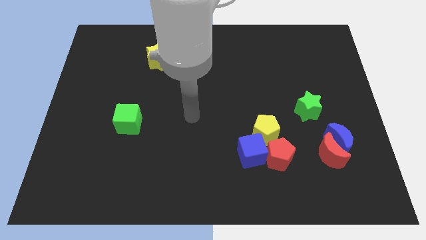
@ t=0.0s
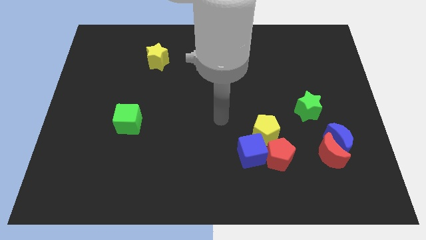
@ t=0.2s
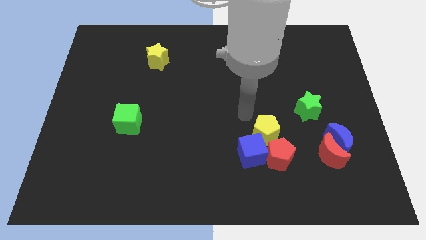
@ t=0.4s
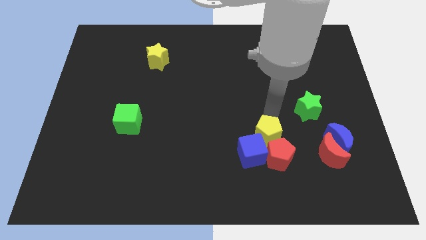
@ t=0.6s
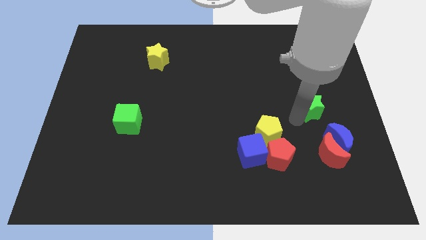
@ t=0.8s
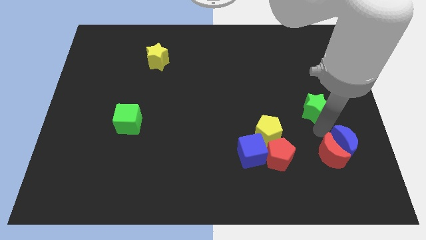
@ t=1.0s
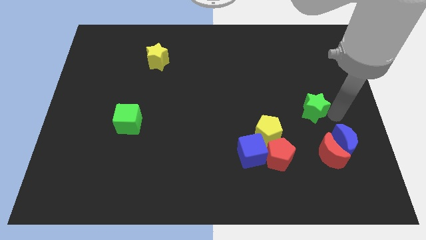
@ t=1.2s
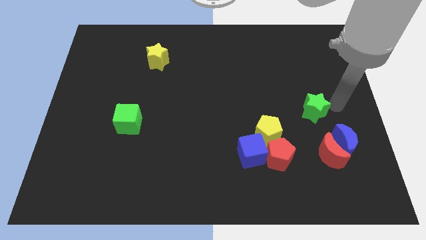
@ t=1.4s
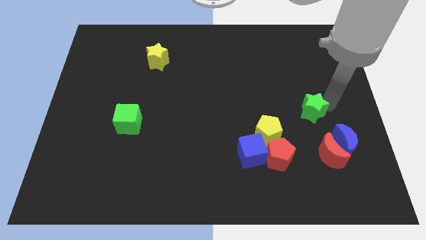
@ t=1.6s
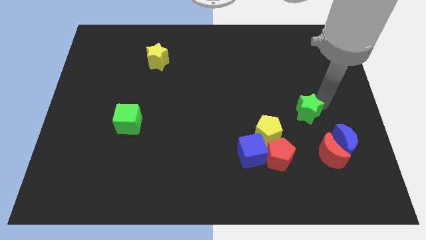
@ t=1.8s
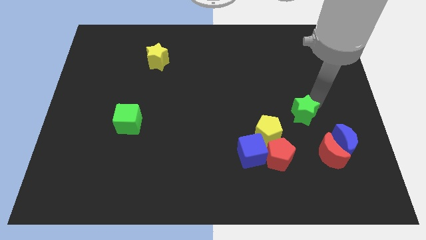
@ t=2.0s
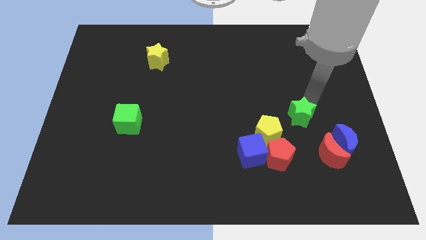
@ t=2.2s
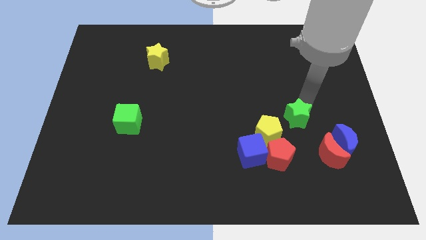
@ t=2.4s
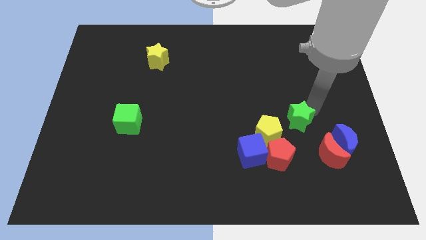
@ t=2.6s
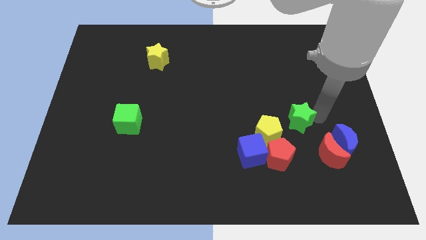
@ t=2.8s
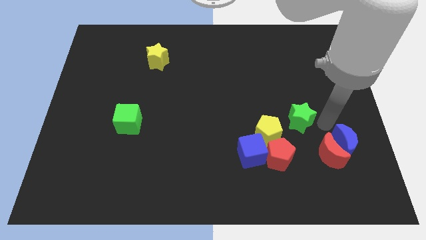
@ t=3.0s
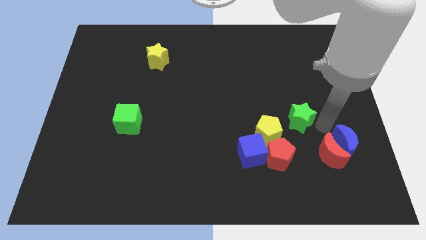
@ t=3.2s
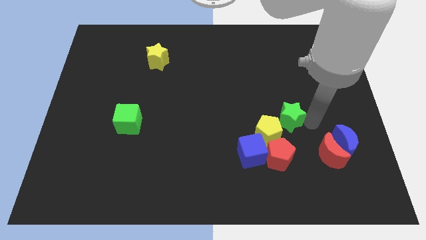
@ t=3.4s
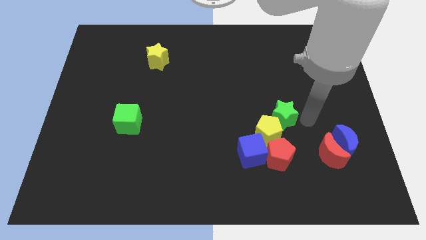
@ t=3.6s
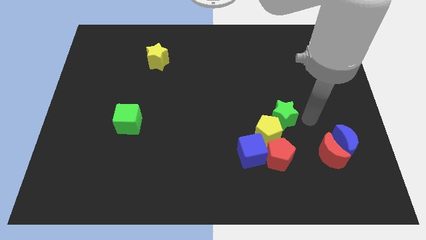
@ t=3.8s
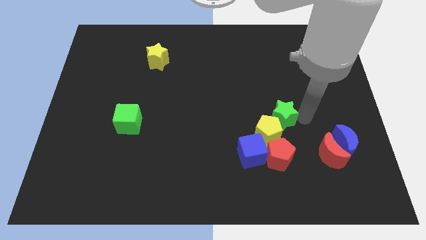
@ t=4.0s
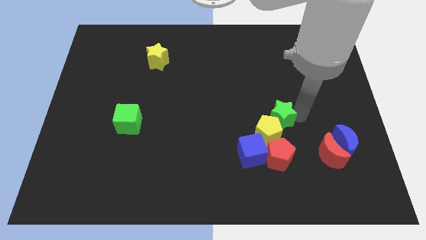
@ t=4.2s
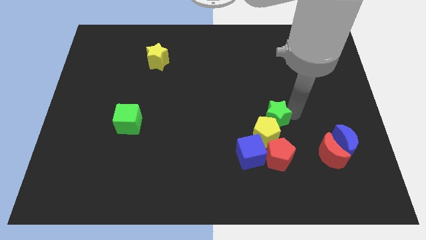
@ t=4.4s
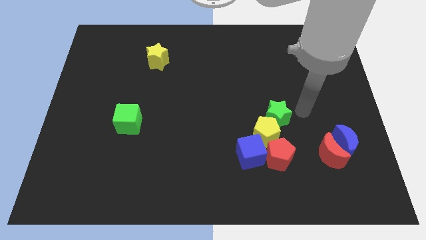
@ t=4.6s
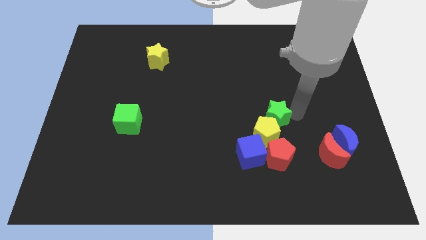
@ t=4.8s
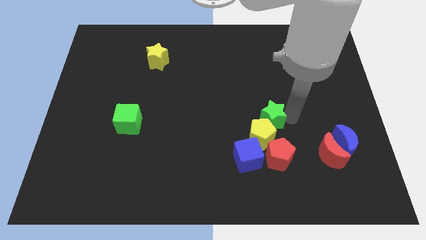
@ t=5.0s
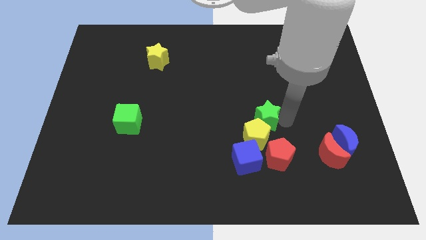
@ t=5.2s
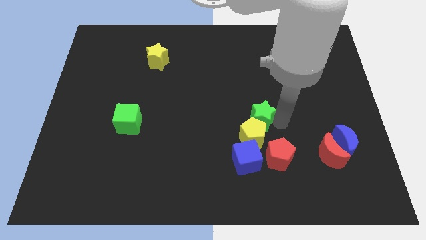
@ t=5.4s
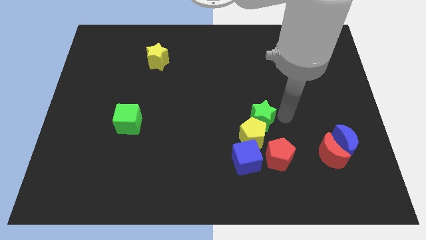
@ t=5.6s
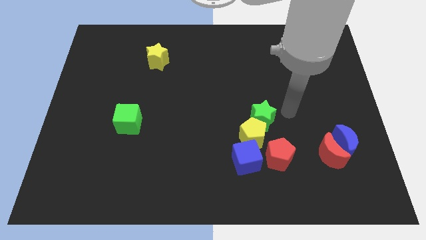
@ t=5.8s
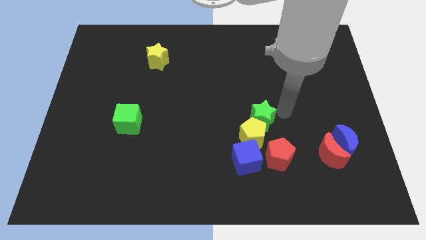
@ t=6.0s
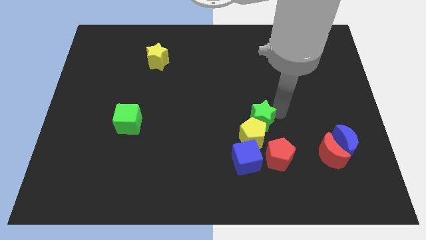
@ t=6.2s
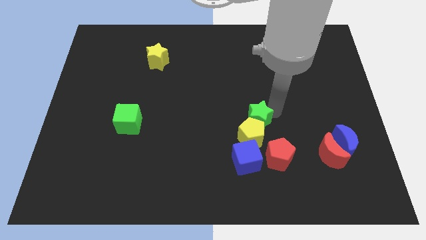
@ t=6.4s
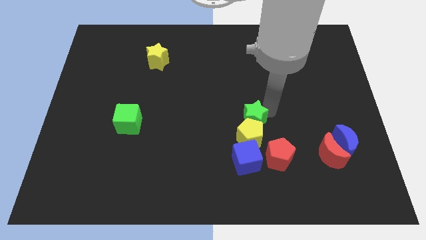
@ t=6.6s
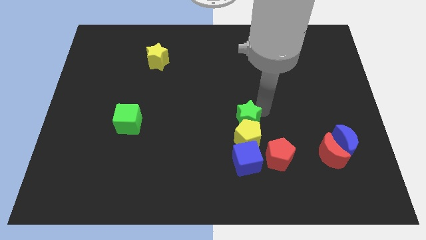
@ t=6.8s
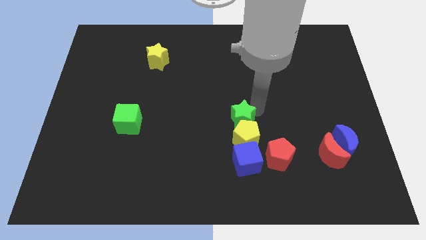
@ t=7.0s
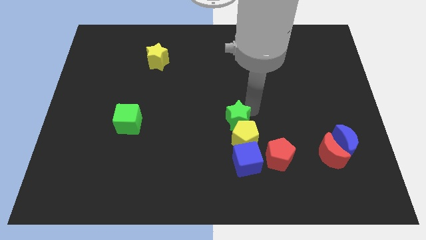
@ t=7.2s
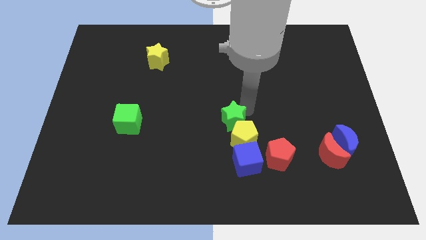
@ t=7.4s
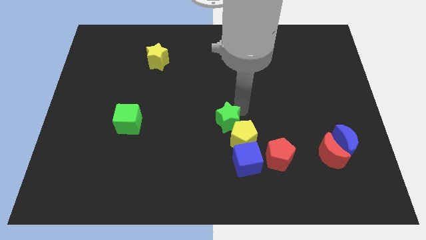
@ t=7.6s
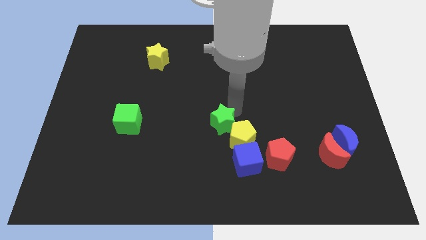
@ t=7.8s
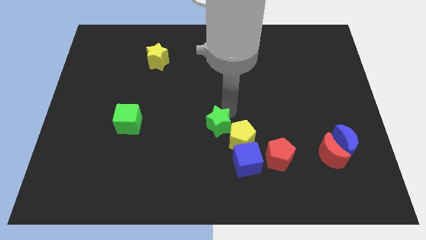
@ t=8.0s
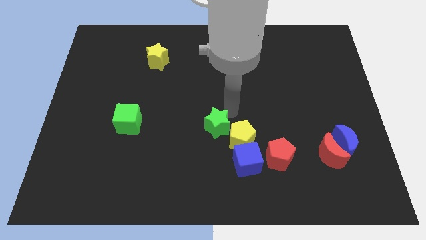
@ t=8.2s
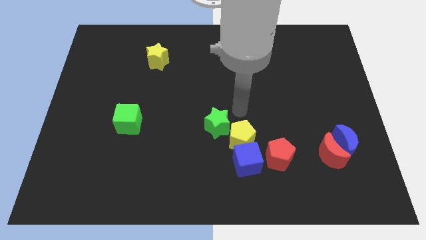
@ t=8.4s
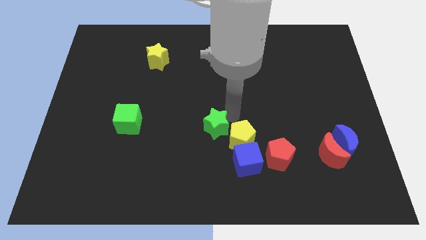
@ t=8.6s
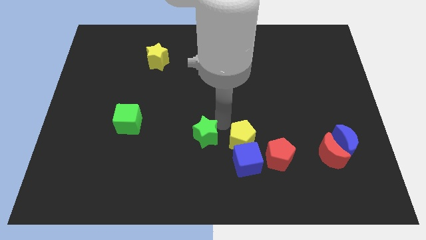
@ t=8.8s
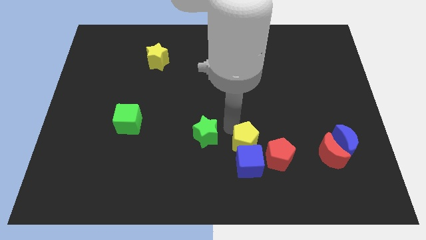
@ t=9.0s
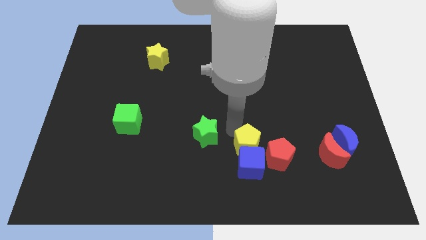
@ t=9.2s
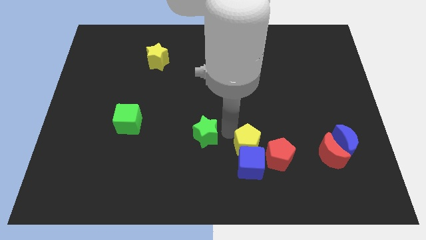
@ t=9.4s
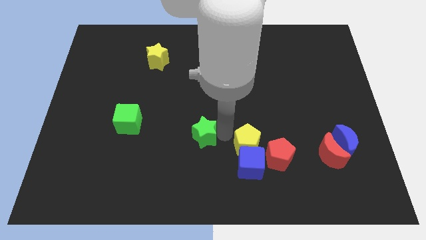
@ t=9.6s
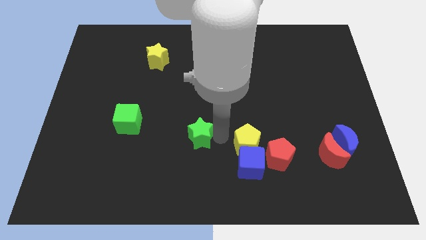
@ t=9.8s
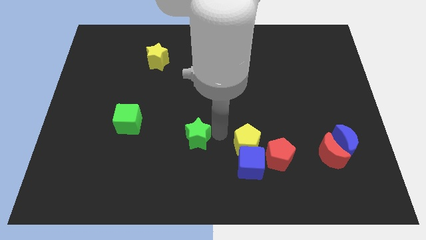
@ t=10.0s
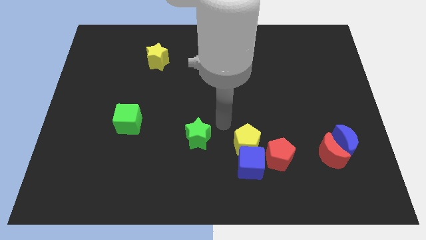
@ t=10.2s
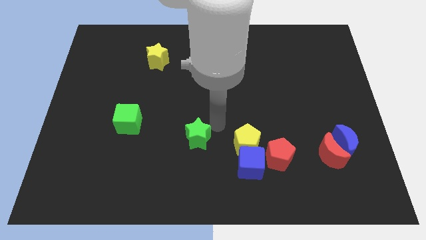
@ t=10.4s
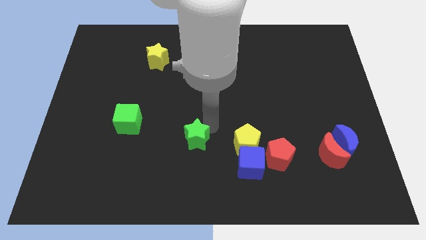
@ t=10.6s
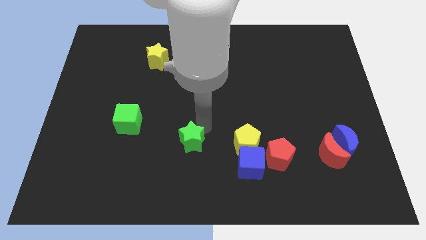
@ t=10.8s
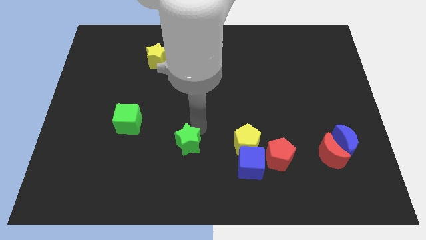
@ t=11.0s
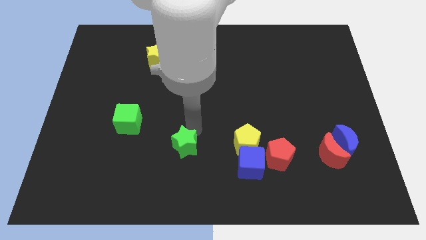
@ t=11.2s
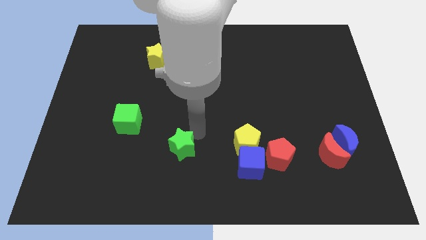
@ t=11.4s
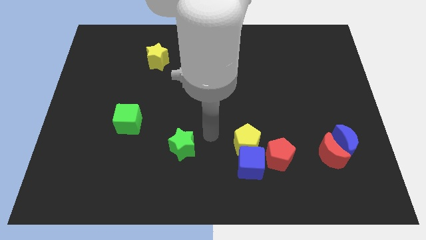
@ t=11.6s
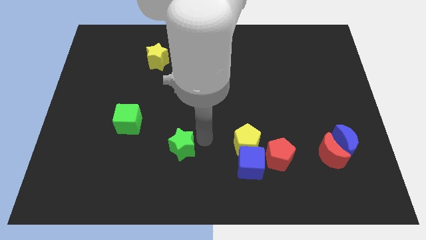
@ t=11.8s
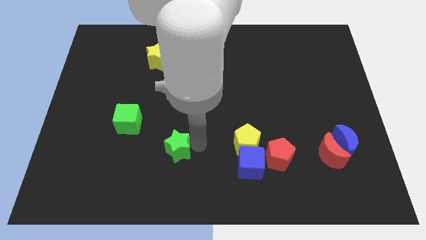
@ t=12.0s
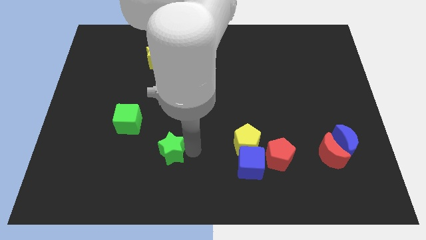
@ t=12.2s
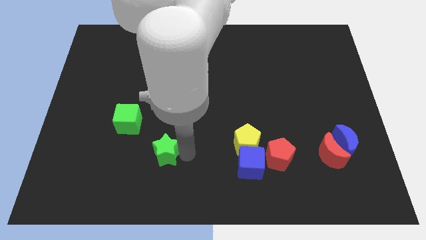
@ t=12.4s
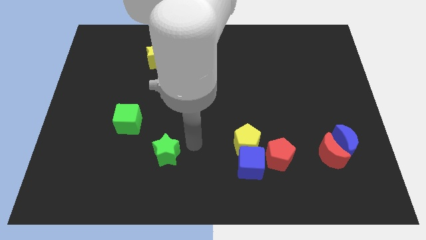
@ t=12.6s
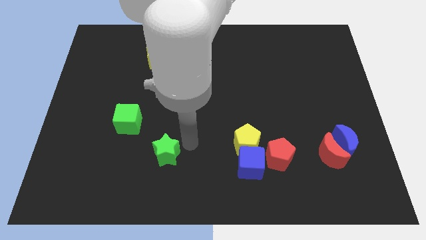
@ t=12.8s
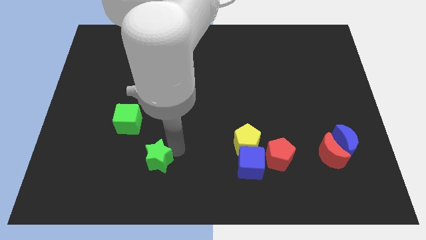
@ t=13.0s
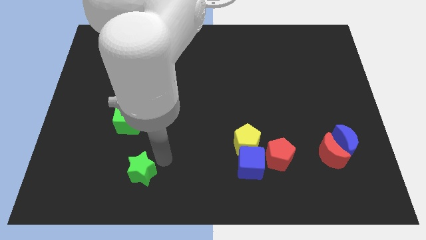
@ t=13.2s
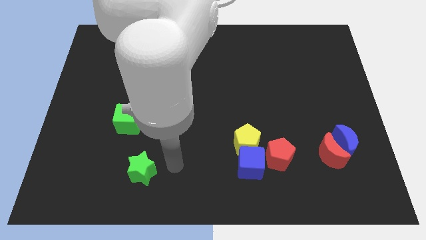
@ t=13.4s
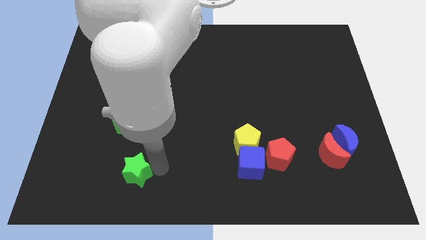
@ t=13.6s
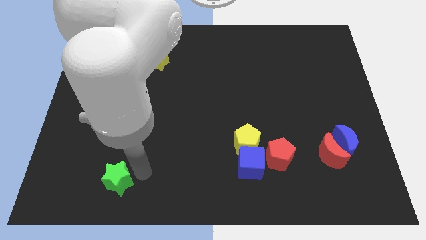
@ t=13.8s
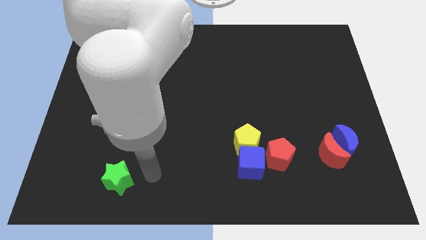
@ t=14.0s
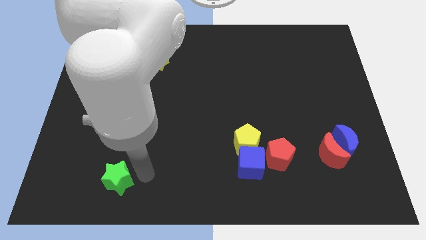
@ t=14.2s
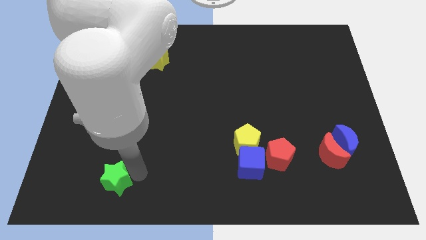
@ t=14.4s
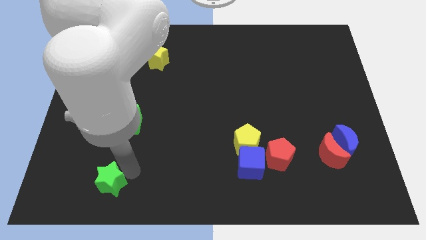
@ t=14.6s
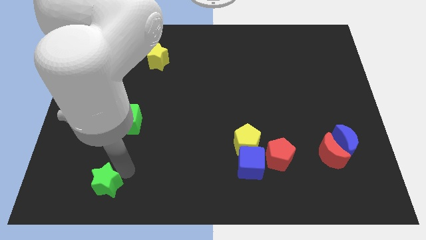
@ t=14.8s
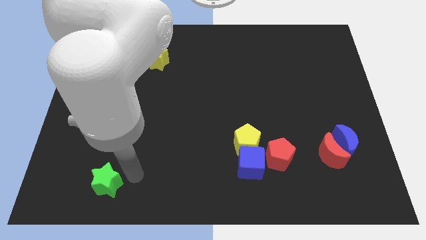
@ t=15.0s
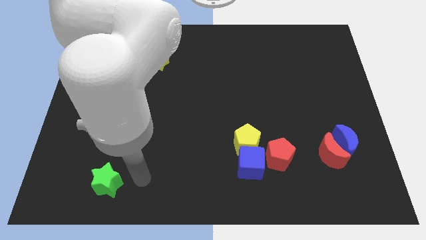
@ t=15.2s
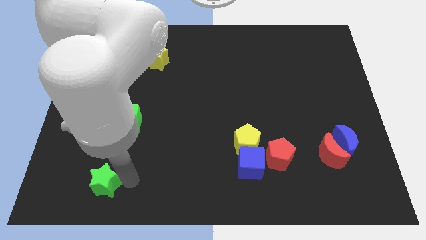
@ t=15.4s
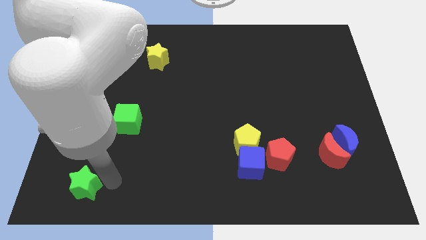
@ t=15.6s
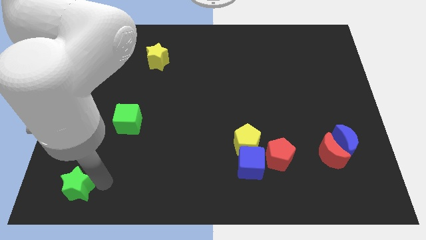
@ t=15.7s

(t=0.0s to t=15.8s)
put the green star to the bottom left of the board

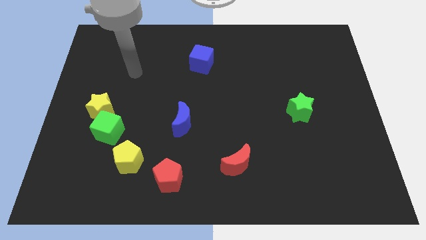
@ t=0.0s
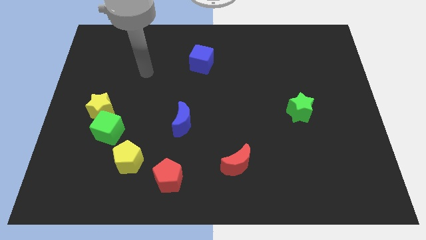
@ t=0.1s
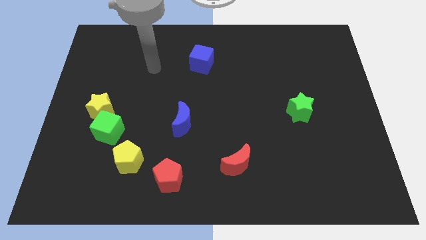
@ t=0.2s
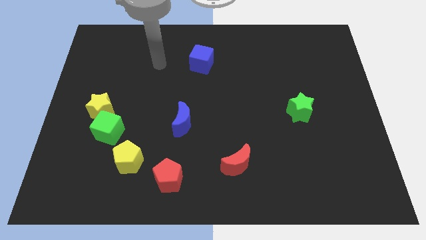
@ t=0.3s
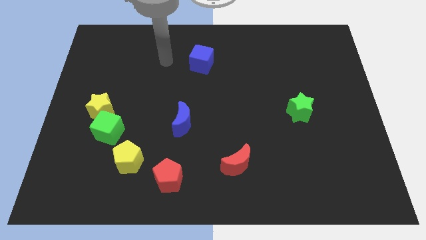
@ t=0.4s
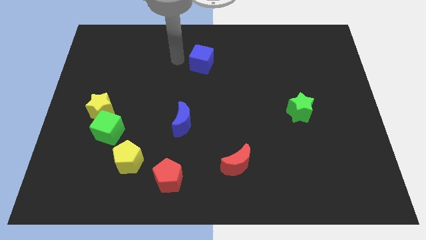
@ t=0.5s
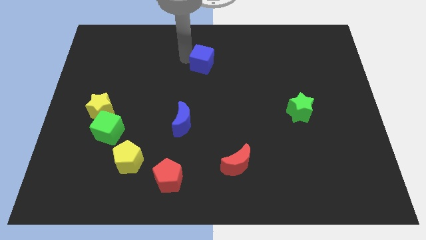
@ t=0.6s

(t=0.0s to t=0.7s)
put the blue cube to the center
